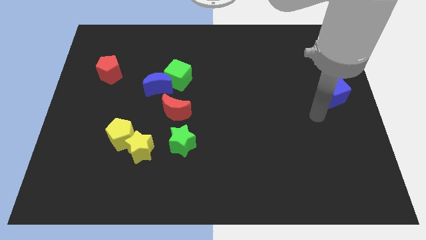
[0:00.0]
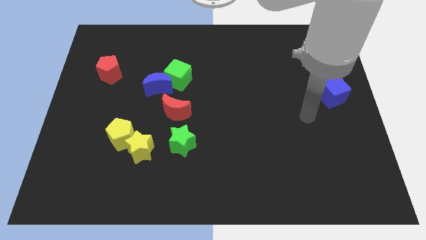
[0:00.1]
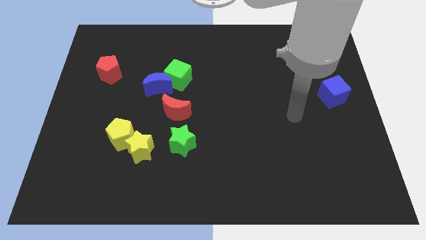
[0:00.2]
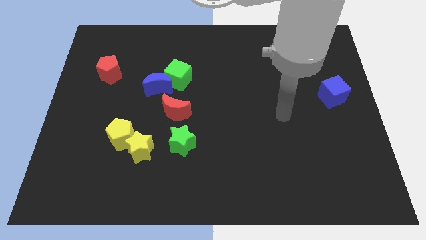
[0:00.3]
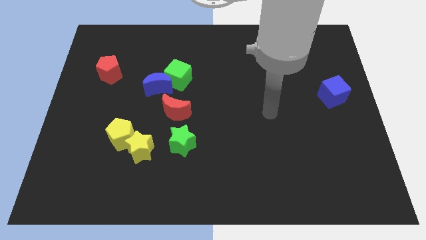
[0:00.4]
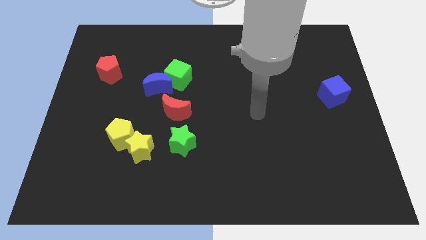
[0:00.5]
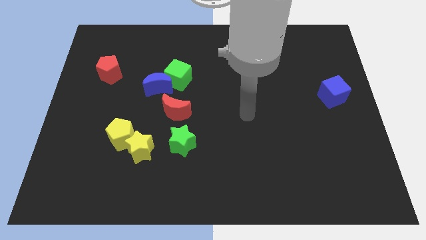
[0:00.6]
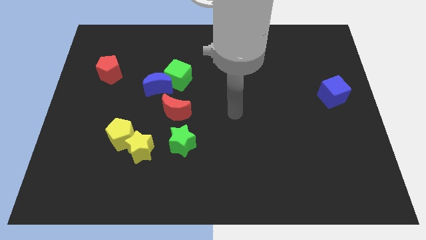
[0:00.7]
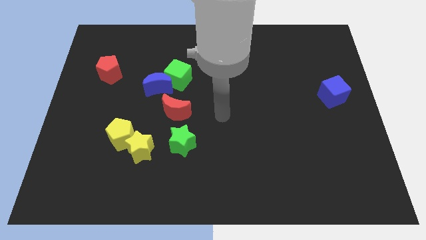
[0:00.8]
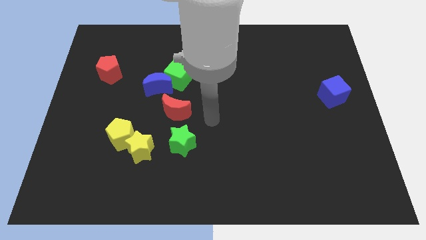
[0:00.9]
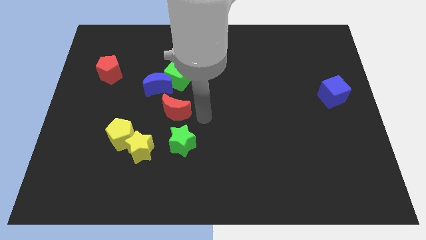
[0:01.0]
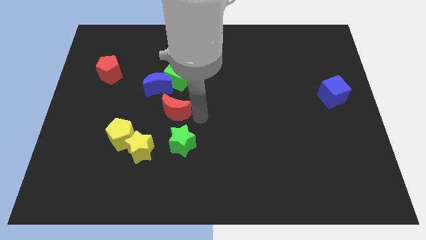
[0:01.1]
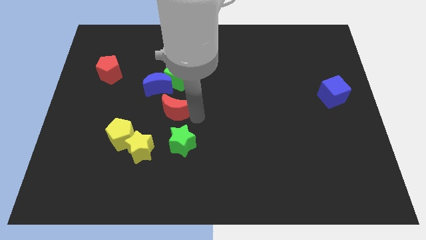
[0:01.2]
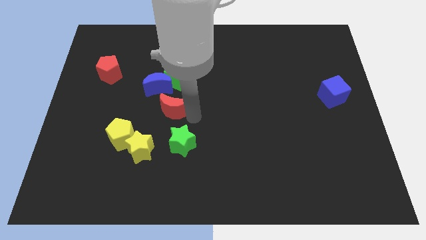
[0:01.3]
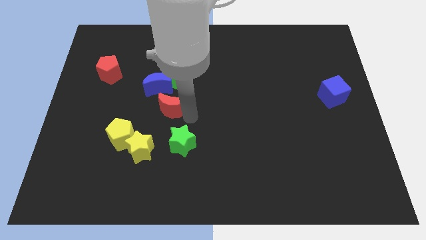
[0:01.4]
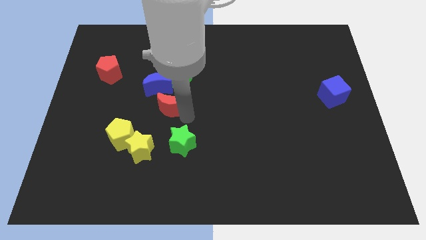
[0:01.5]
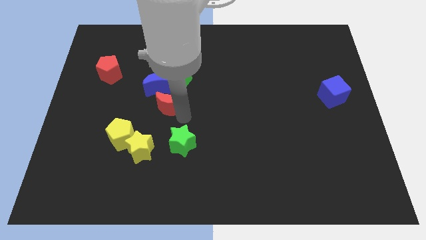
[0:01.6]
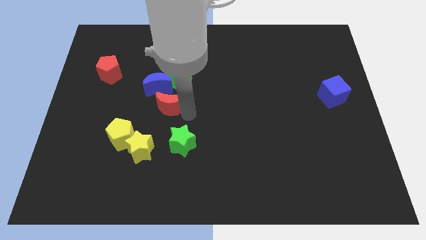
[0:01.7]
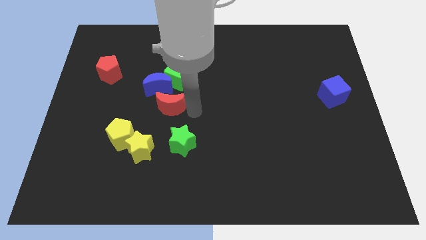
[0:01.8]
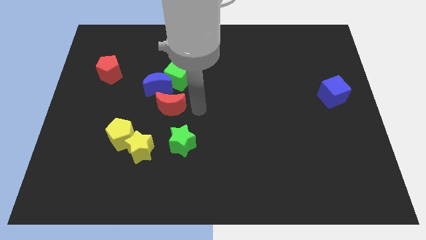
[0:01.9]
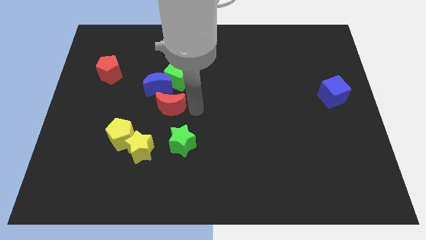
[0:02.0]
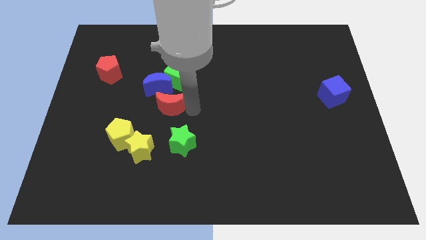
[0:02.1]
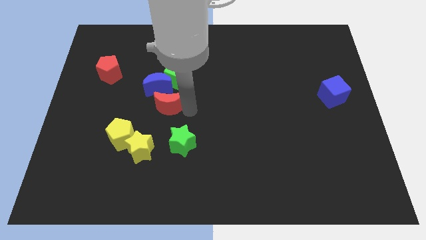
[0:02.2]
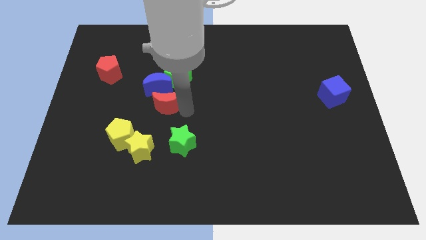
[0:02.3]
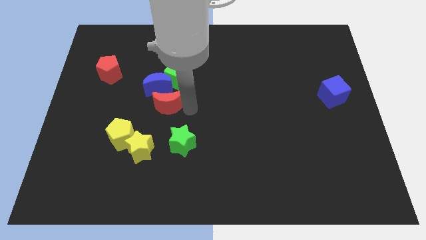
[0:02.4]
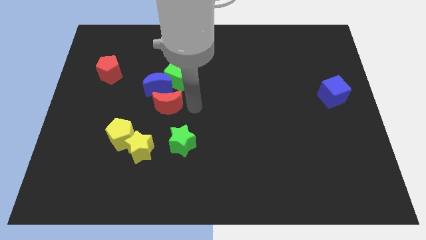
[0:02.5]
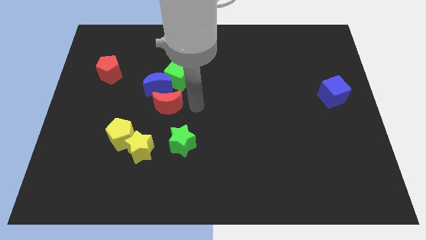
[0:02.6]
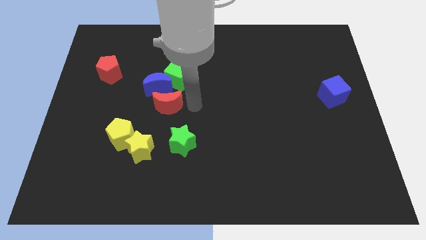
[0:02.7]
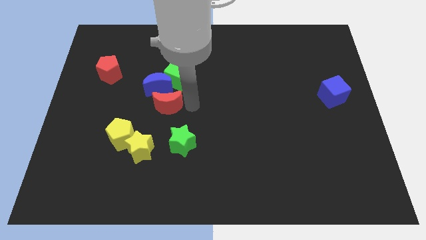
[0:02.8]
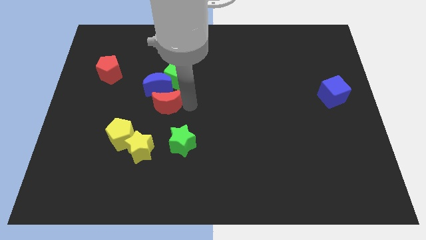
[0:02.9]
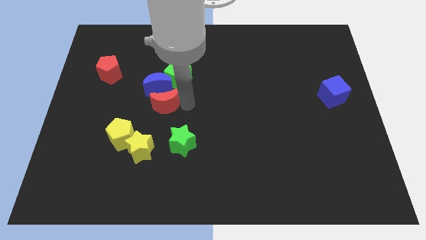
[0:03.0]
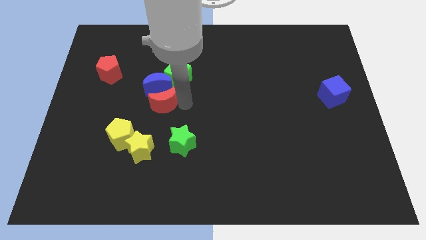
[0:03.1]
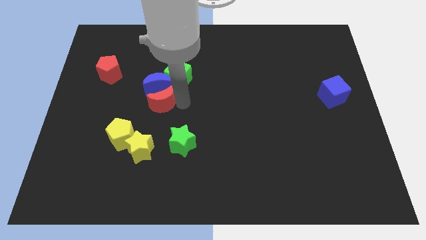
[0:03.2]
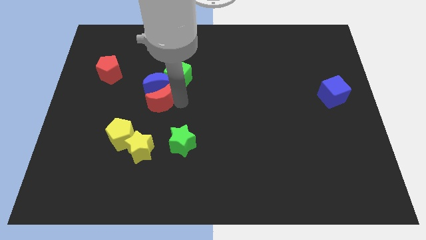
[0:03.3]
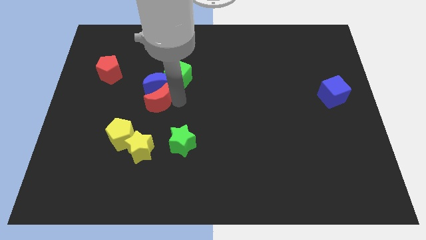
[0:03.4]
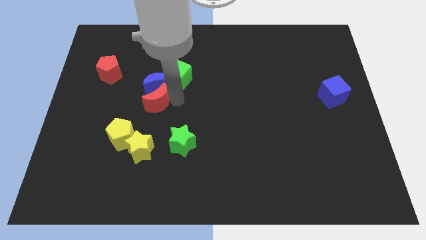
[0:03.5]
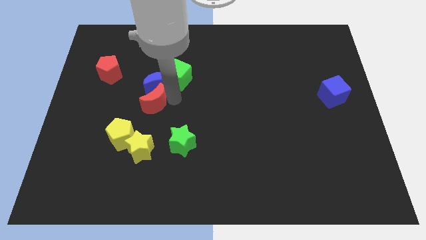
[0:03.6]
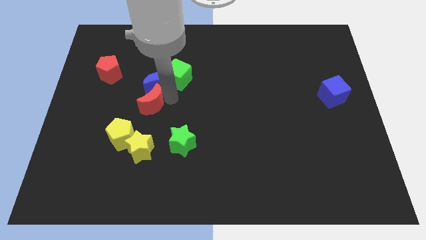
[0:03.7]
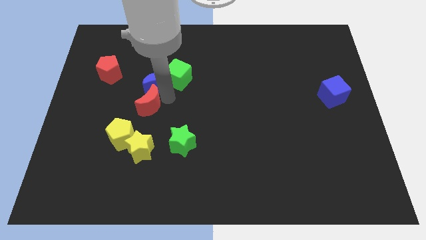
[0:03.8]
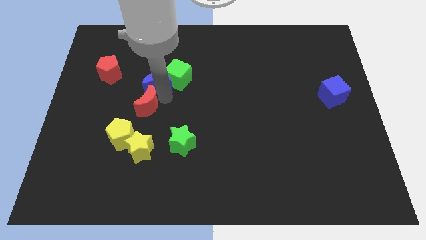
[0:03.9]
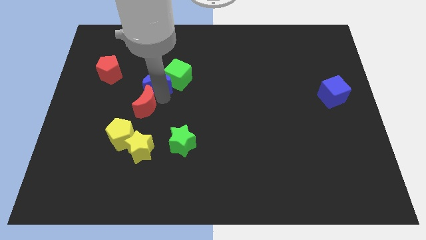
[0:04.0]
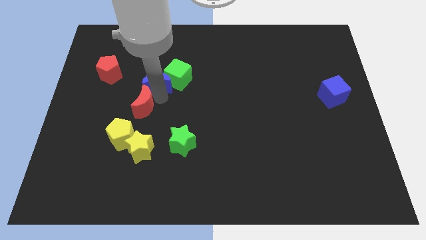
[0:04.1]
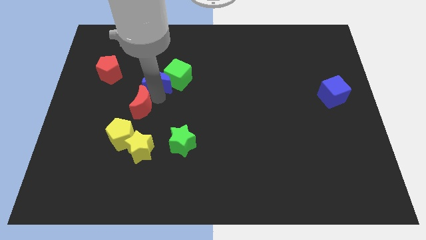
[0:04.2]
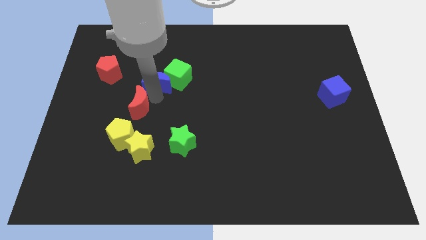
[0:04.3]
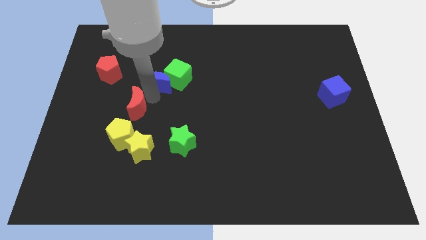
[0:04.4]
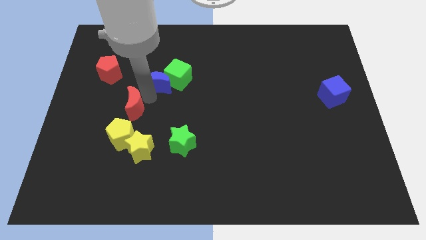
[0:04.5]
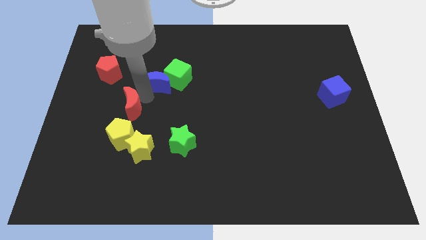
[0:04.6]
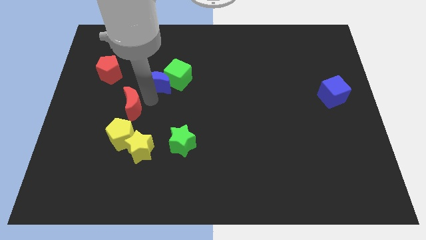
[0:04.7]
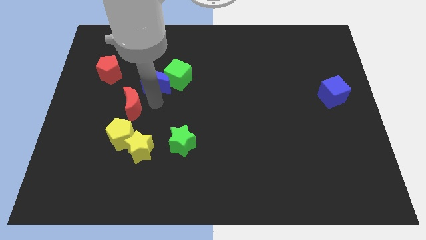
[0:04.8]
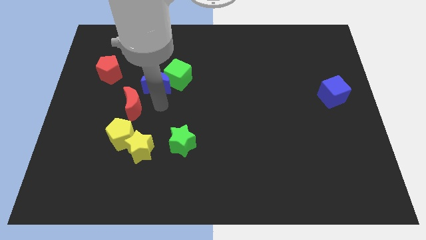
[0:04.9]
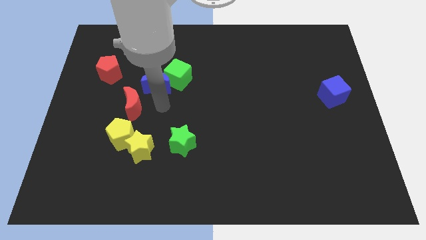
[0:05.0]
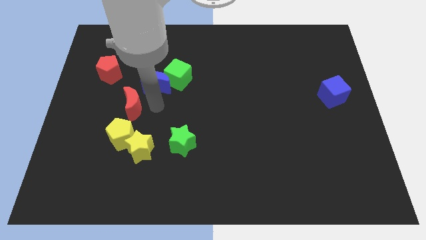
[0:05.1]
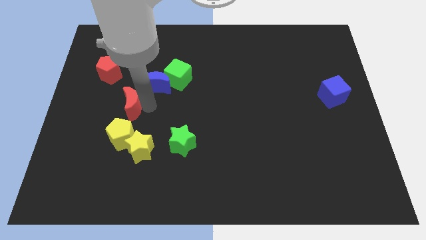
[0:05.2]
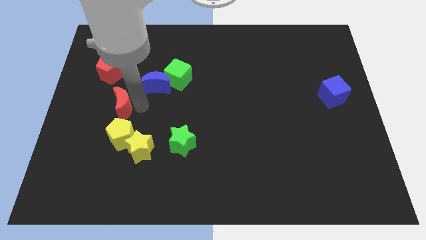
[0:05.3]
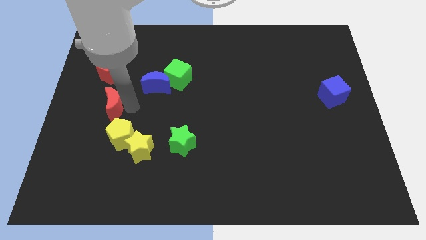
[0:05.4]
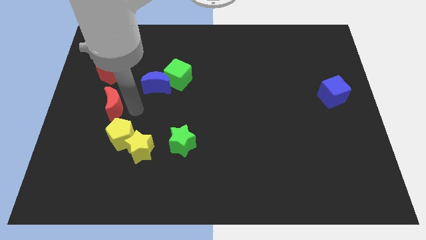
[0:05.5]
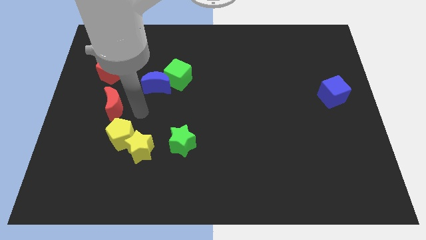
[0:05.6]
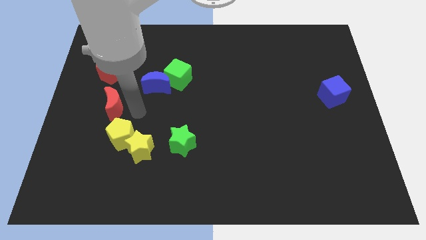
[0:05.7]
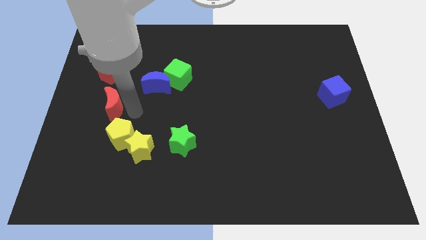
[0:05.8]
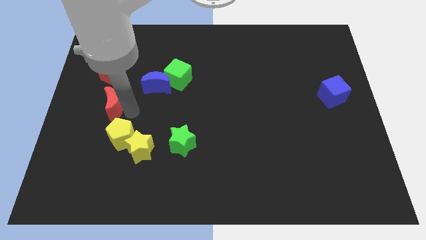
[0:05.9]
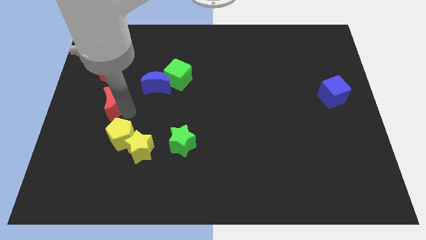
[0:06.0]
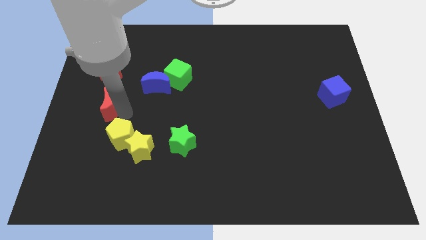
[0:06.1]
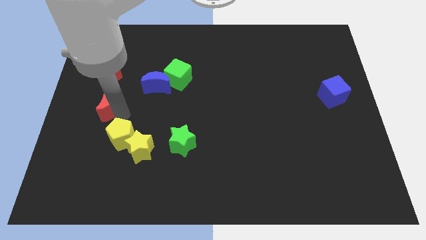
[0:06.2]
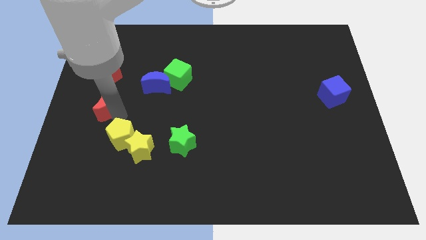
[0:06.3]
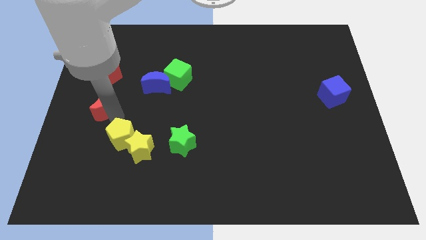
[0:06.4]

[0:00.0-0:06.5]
push the red moon to the center left

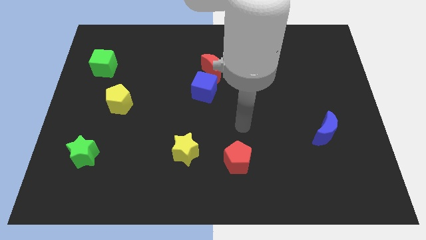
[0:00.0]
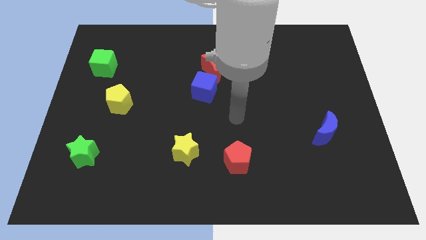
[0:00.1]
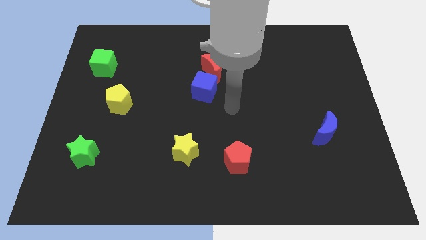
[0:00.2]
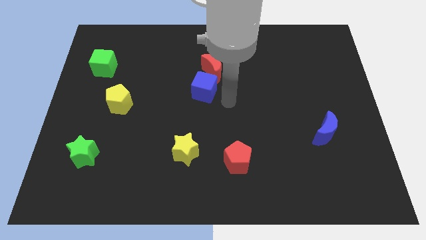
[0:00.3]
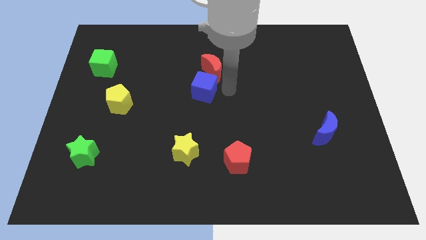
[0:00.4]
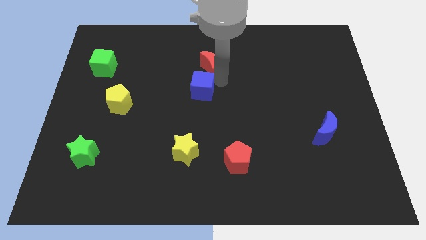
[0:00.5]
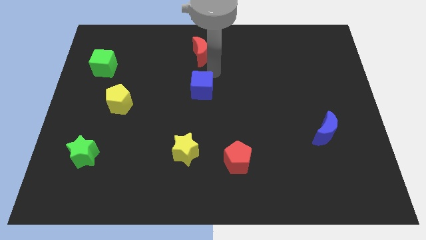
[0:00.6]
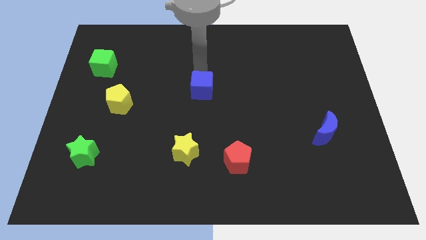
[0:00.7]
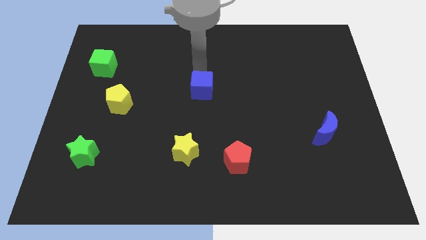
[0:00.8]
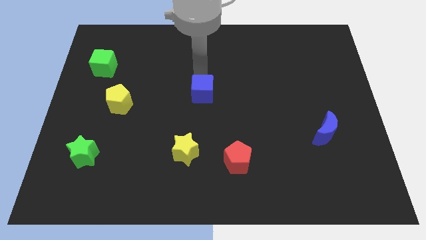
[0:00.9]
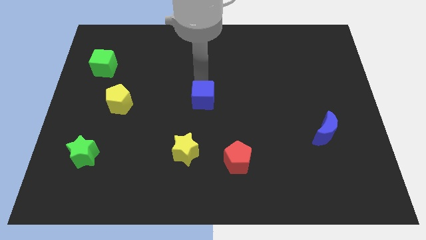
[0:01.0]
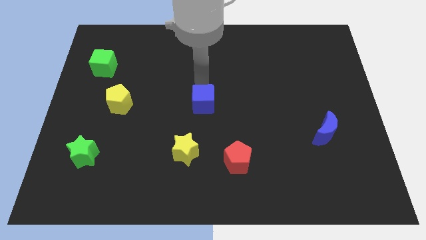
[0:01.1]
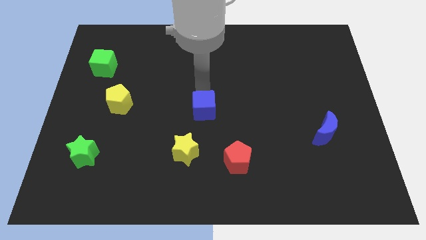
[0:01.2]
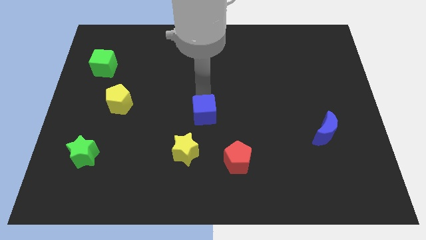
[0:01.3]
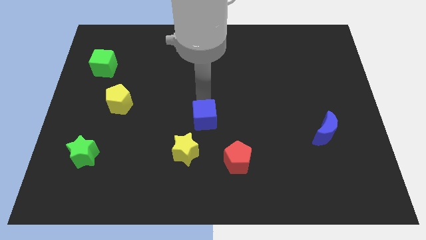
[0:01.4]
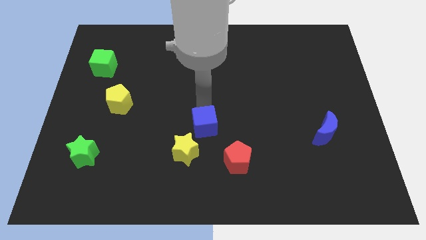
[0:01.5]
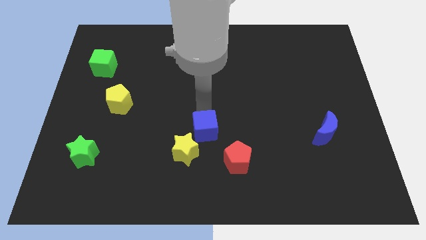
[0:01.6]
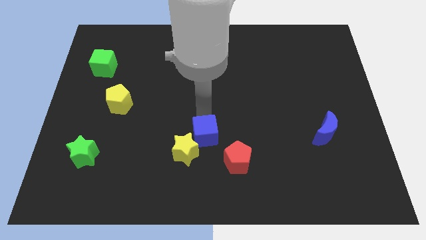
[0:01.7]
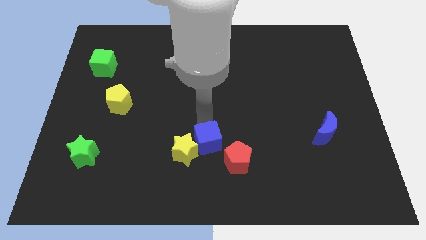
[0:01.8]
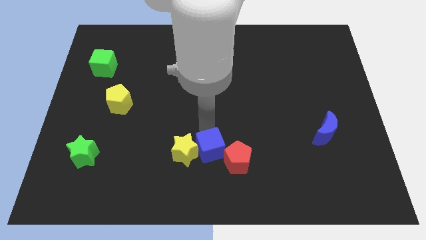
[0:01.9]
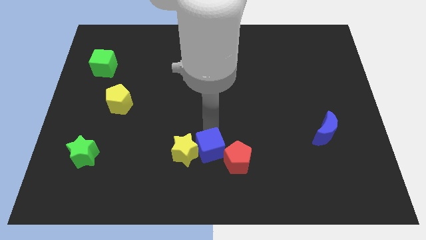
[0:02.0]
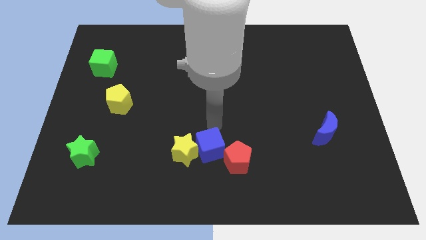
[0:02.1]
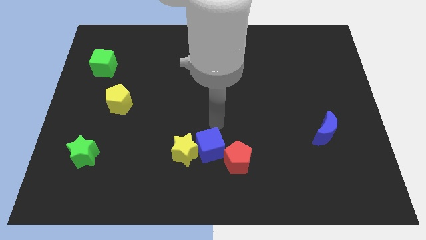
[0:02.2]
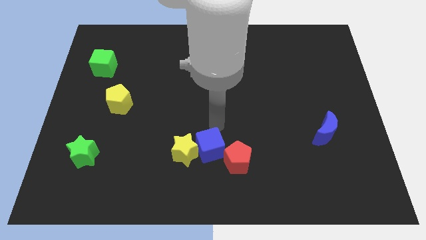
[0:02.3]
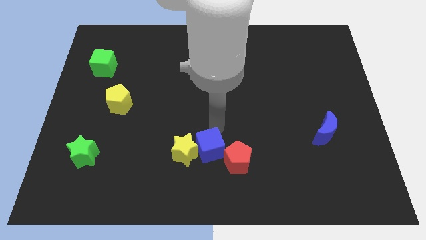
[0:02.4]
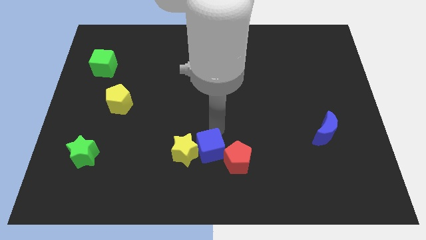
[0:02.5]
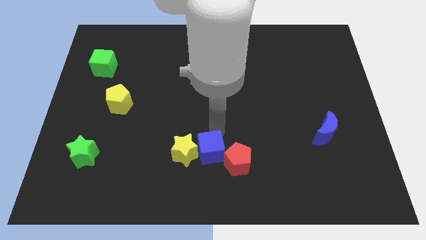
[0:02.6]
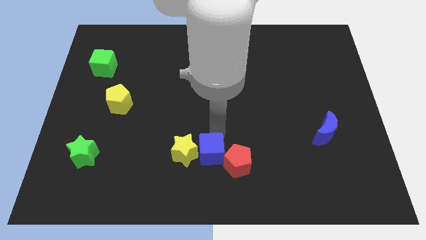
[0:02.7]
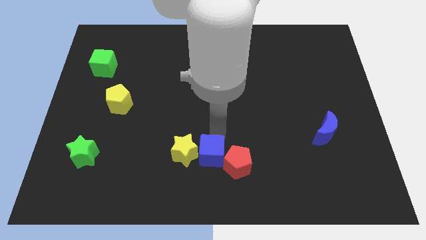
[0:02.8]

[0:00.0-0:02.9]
slide the blue cube to the bottom side
